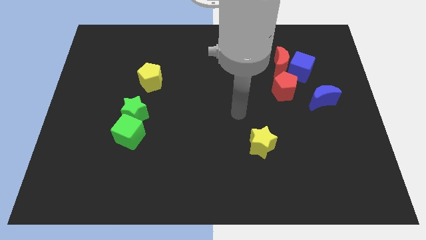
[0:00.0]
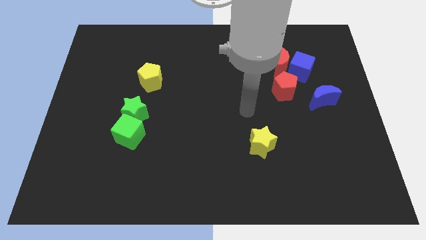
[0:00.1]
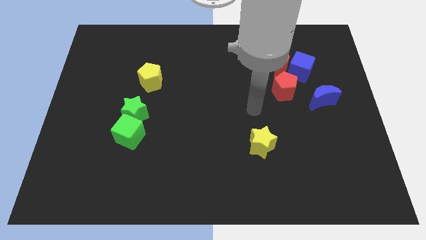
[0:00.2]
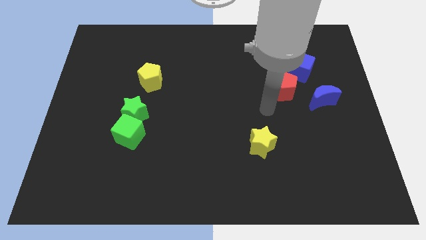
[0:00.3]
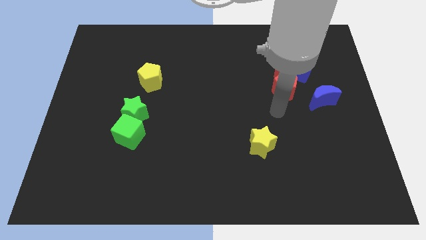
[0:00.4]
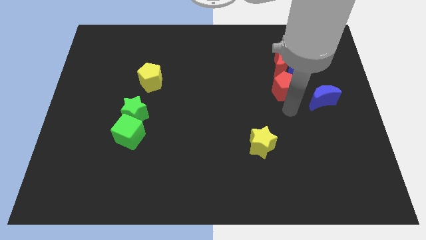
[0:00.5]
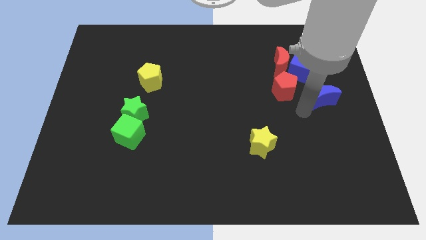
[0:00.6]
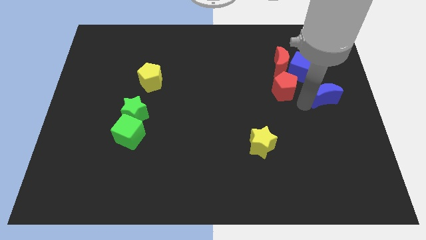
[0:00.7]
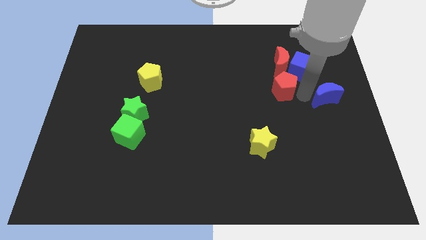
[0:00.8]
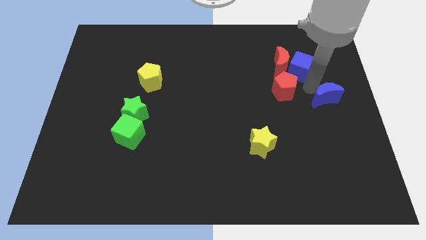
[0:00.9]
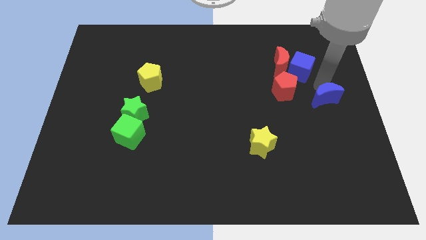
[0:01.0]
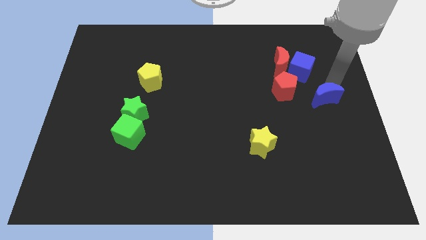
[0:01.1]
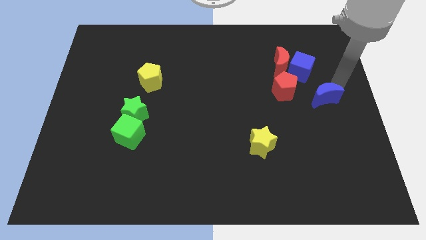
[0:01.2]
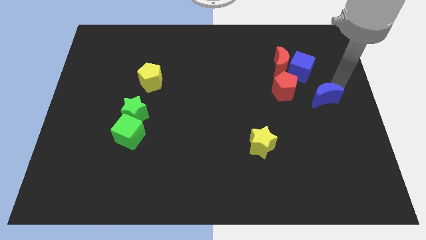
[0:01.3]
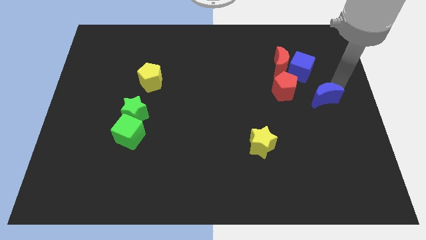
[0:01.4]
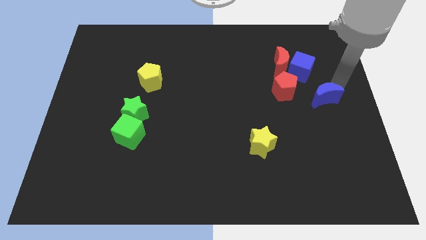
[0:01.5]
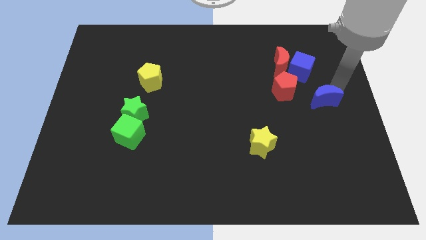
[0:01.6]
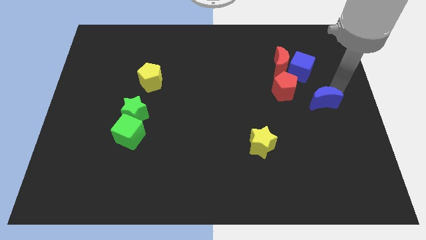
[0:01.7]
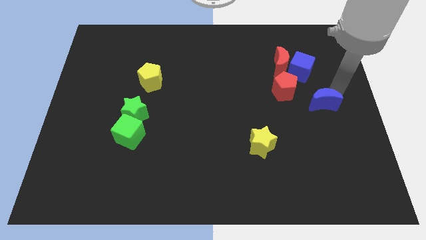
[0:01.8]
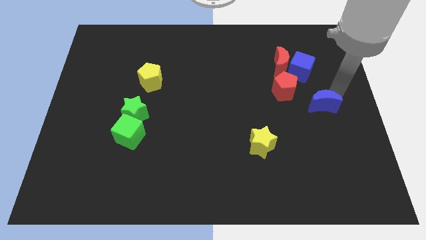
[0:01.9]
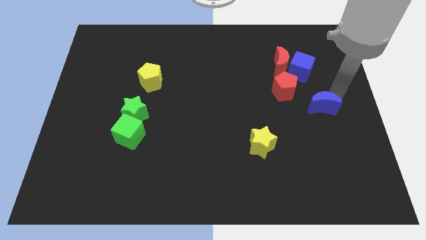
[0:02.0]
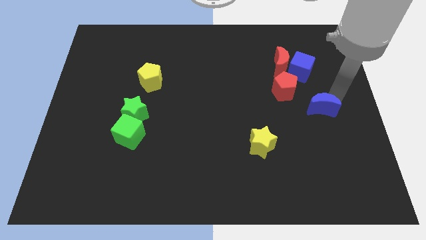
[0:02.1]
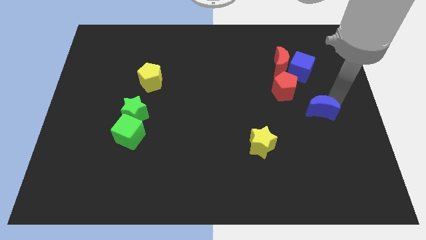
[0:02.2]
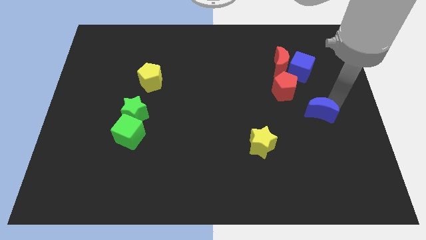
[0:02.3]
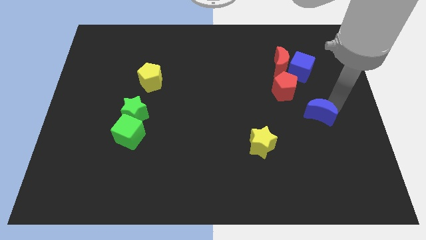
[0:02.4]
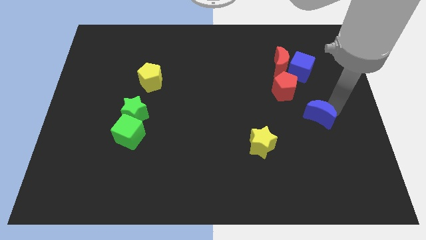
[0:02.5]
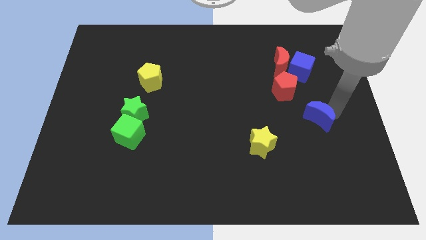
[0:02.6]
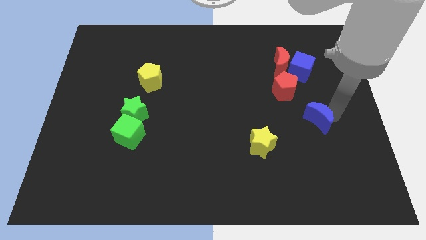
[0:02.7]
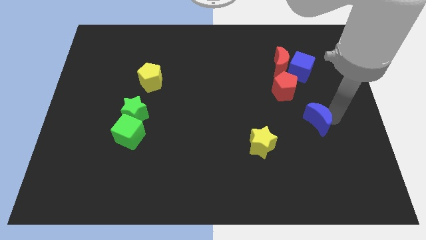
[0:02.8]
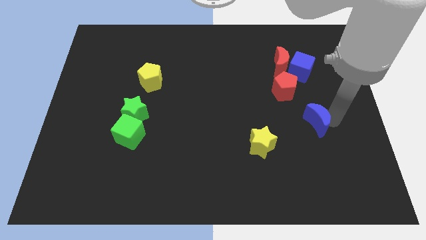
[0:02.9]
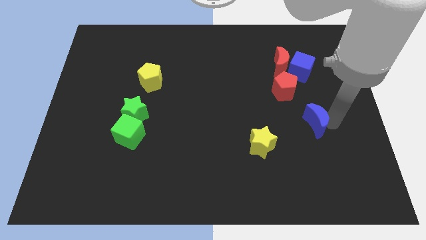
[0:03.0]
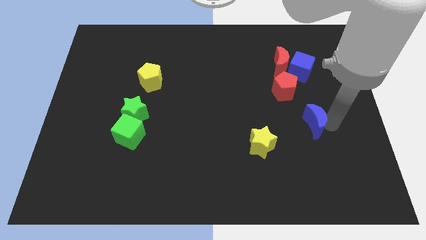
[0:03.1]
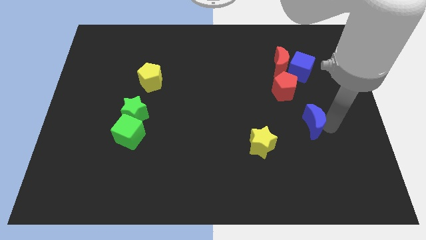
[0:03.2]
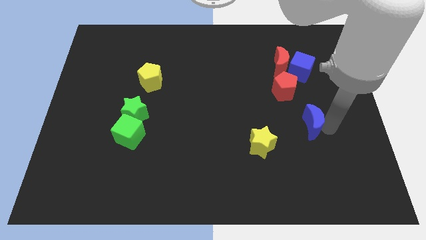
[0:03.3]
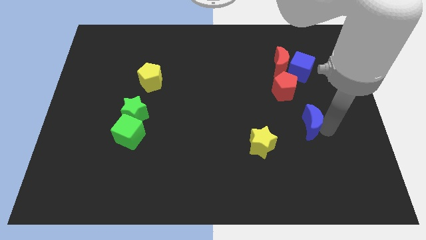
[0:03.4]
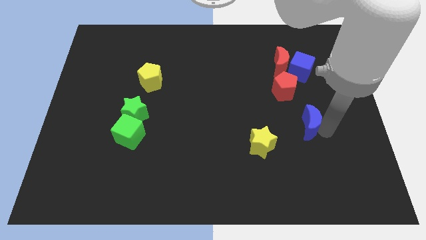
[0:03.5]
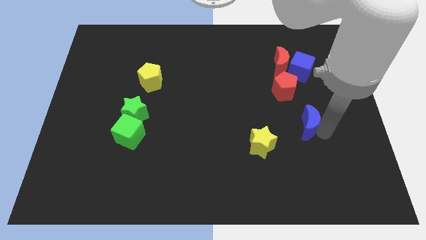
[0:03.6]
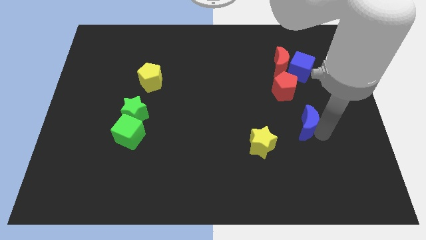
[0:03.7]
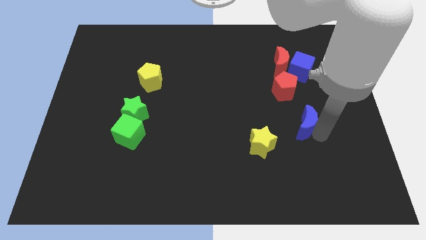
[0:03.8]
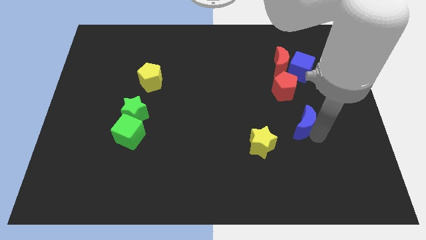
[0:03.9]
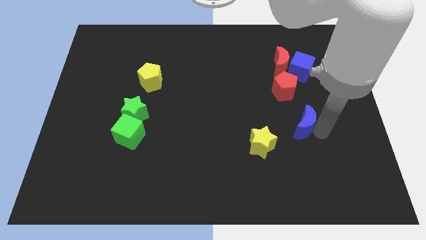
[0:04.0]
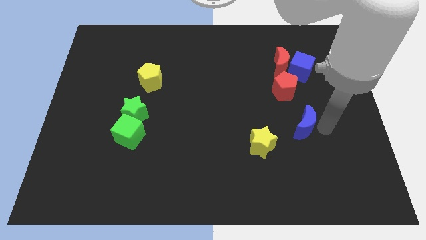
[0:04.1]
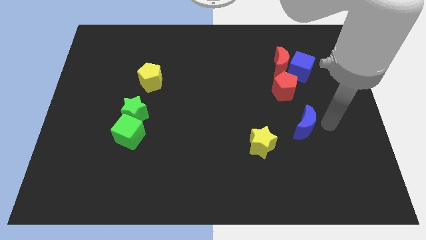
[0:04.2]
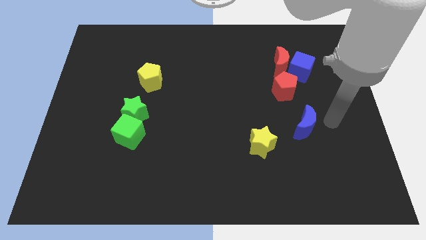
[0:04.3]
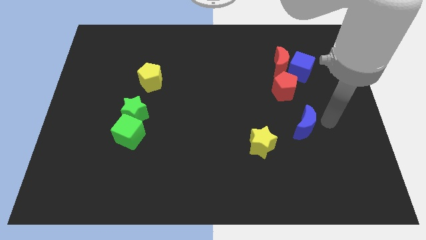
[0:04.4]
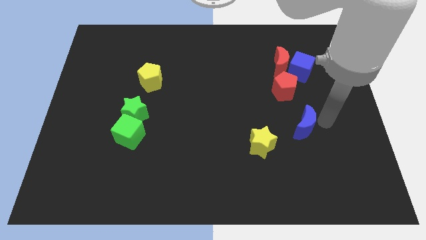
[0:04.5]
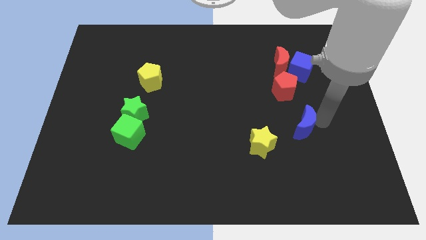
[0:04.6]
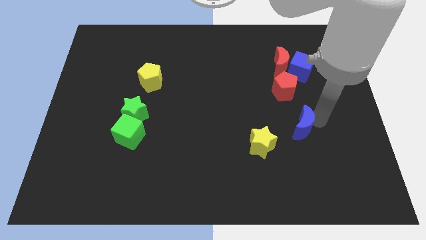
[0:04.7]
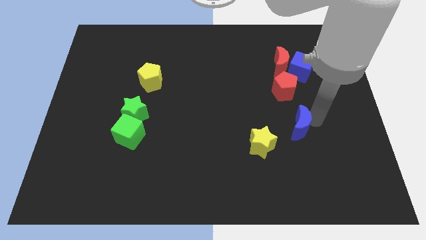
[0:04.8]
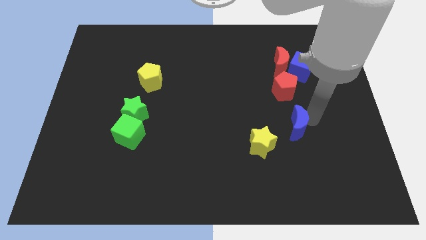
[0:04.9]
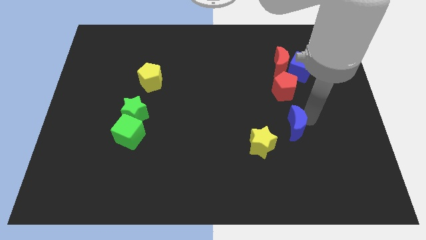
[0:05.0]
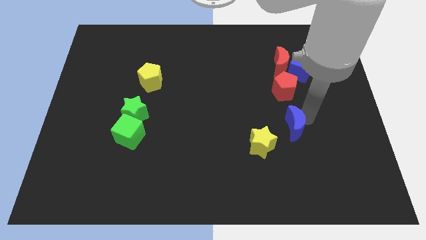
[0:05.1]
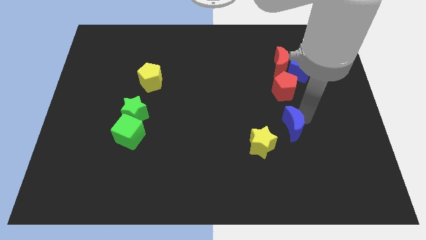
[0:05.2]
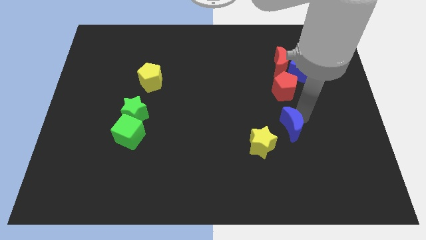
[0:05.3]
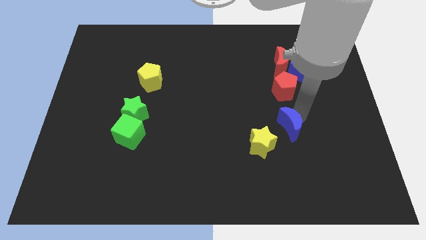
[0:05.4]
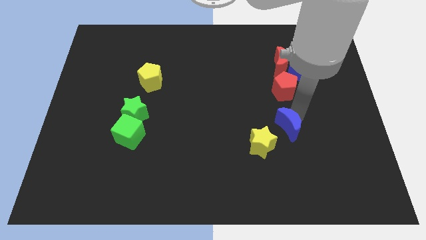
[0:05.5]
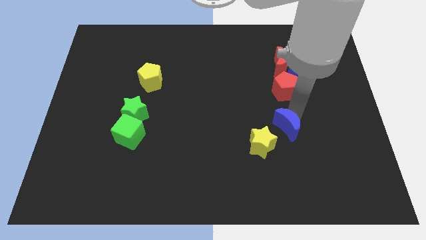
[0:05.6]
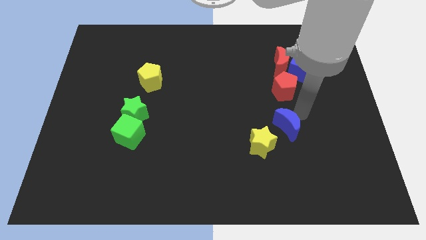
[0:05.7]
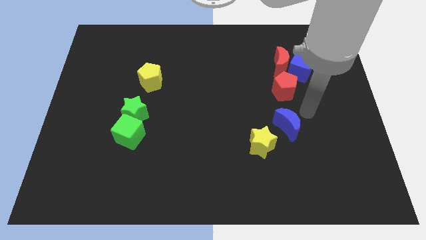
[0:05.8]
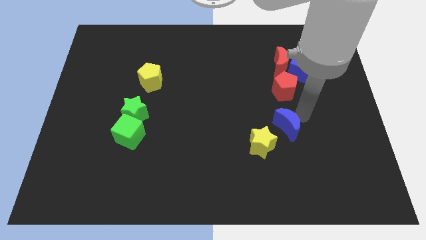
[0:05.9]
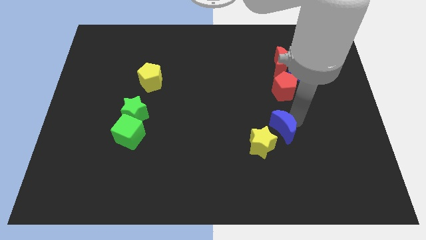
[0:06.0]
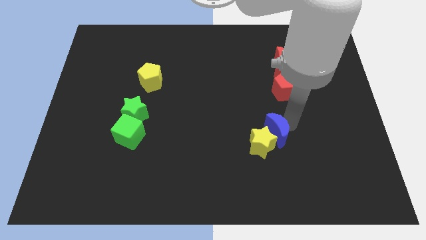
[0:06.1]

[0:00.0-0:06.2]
move the blue moon close to the yellow star
